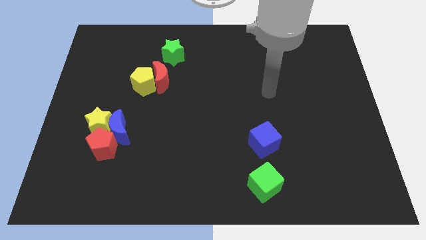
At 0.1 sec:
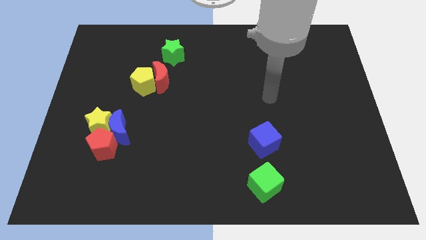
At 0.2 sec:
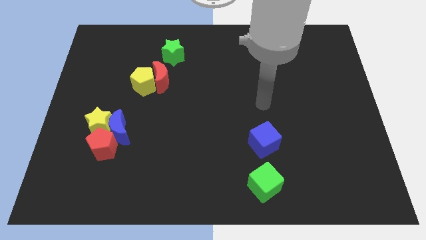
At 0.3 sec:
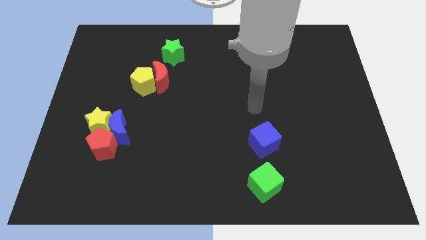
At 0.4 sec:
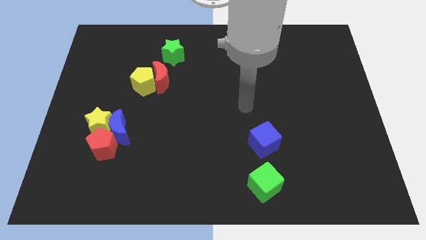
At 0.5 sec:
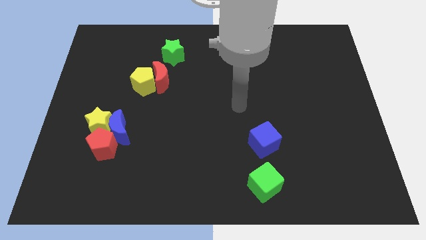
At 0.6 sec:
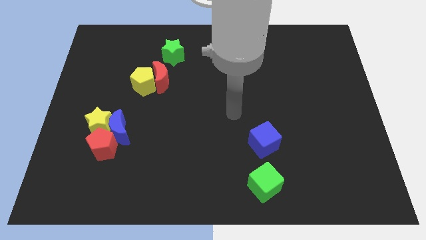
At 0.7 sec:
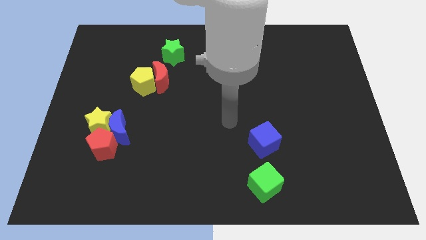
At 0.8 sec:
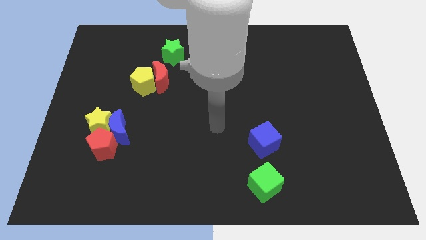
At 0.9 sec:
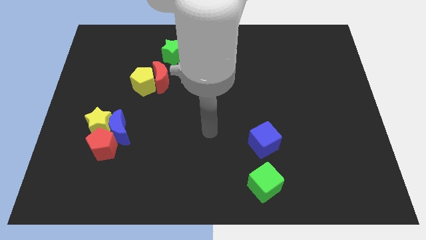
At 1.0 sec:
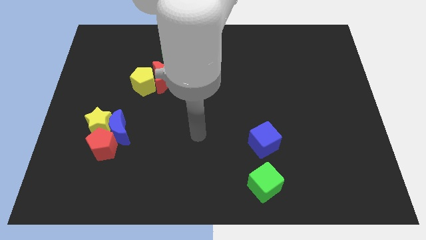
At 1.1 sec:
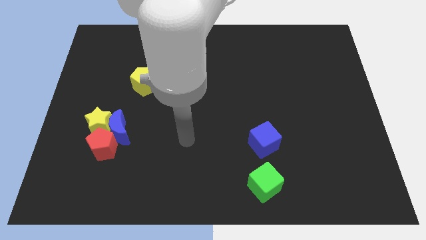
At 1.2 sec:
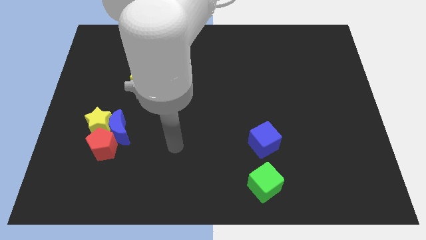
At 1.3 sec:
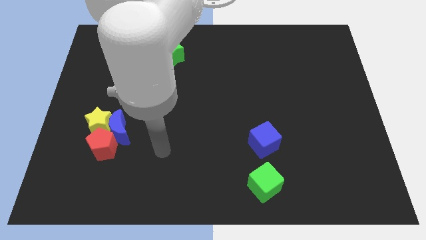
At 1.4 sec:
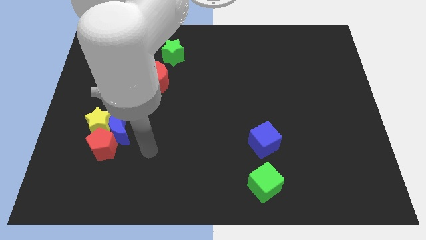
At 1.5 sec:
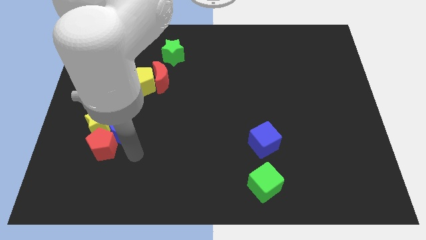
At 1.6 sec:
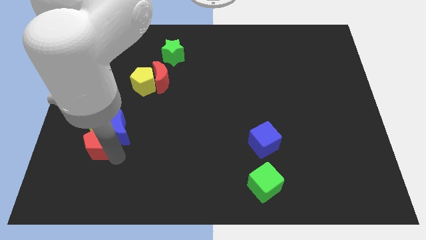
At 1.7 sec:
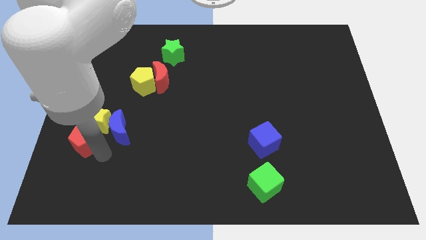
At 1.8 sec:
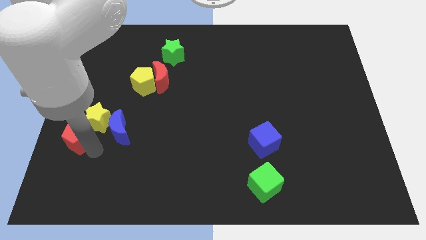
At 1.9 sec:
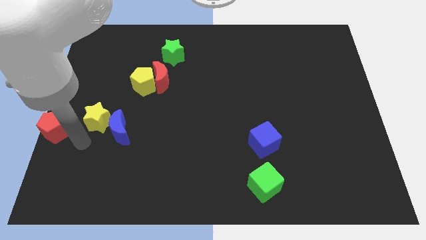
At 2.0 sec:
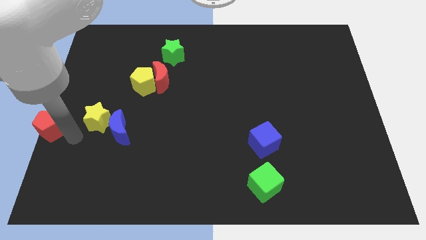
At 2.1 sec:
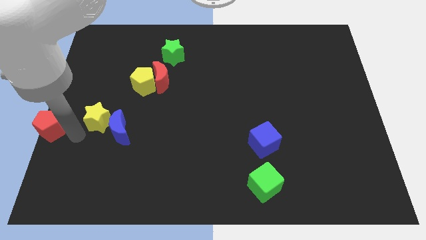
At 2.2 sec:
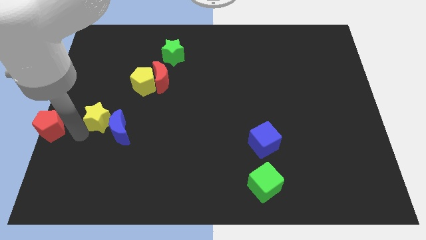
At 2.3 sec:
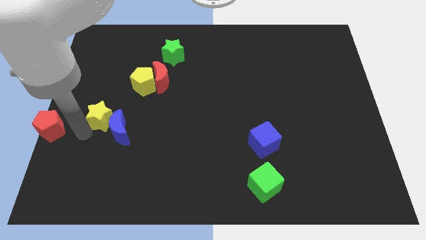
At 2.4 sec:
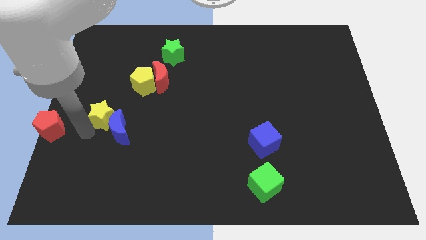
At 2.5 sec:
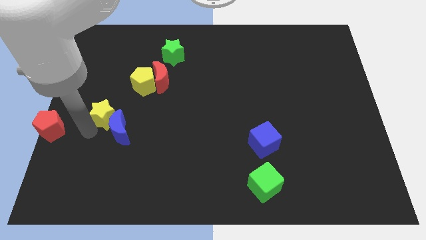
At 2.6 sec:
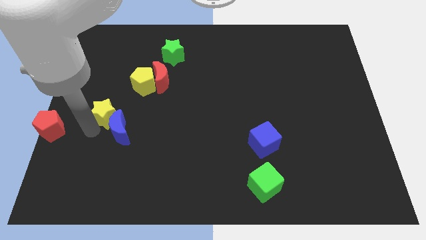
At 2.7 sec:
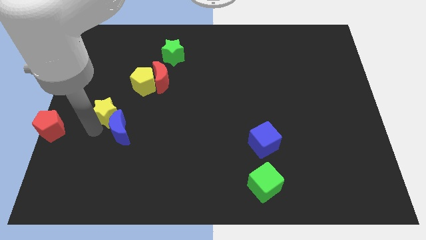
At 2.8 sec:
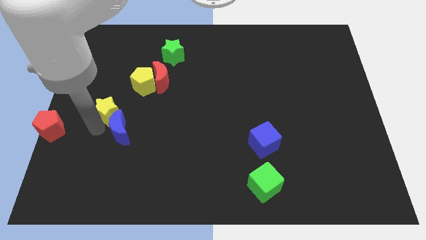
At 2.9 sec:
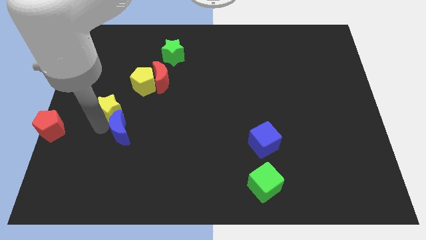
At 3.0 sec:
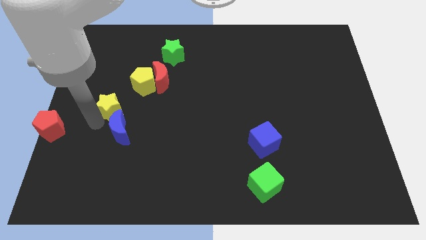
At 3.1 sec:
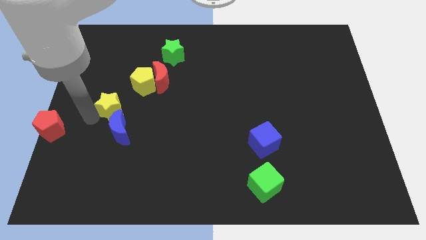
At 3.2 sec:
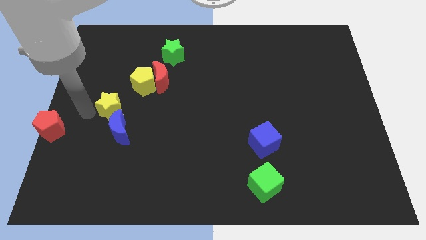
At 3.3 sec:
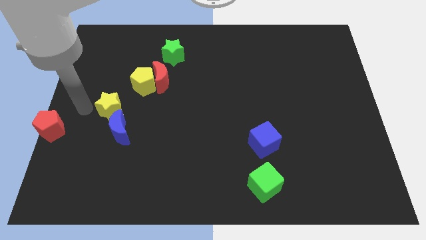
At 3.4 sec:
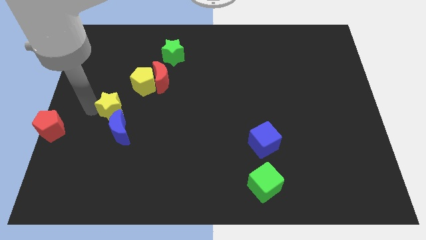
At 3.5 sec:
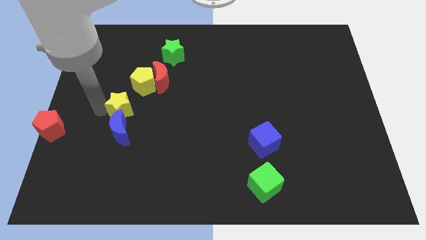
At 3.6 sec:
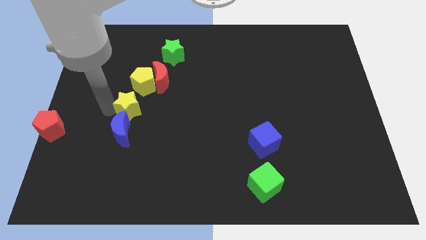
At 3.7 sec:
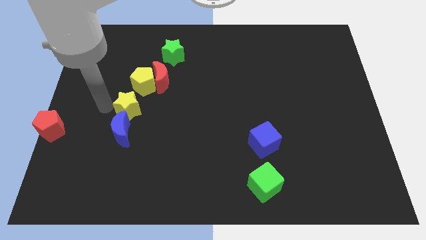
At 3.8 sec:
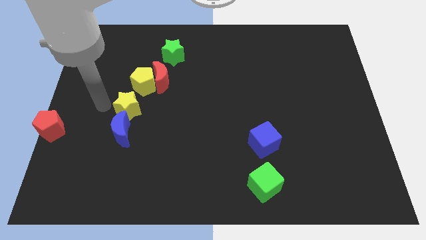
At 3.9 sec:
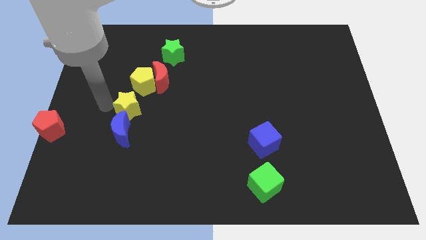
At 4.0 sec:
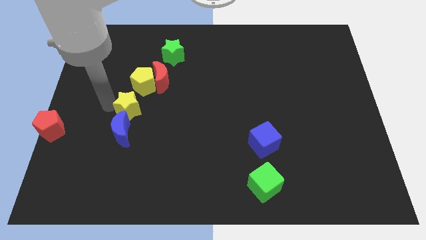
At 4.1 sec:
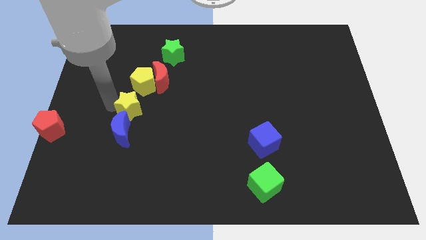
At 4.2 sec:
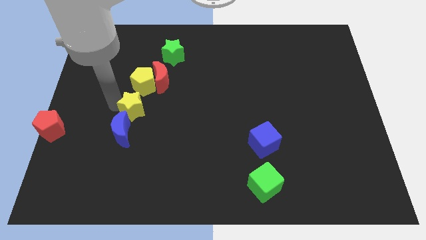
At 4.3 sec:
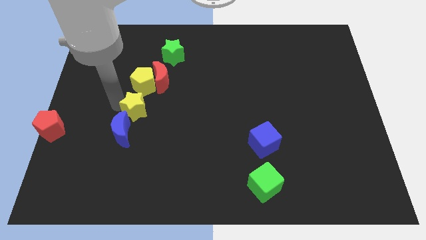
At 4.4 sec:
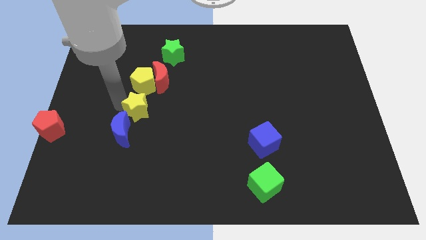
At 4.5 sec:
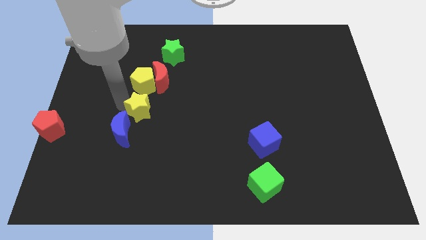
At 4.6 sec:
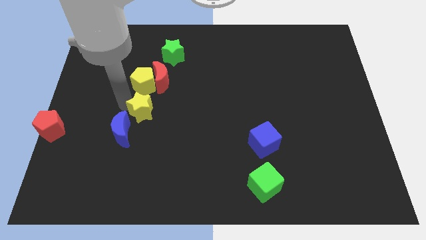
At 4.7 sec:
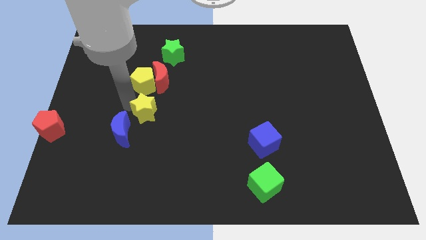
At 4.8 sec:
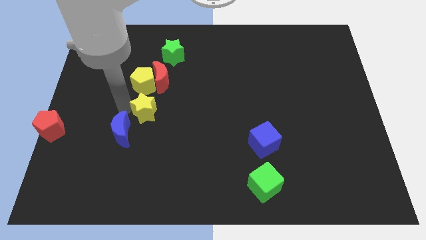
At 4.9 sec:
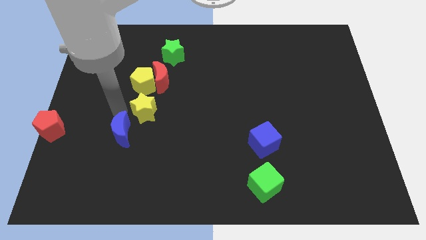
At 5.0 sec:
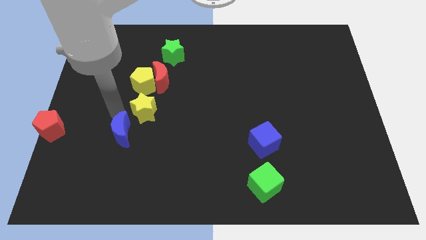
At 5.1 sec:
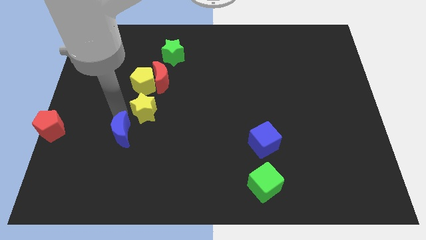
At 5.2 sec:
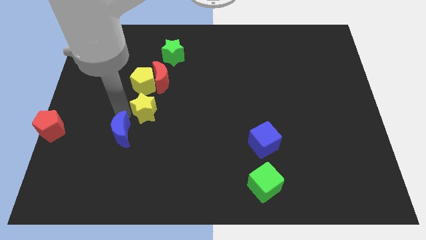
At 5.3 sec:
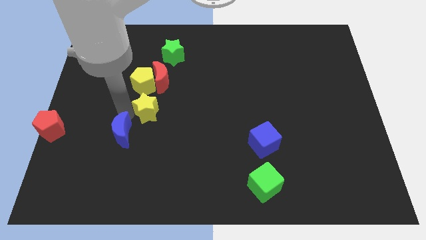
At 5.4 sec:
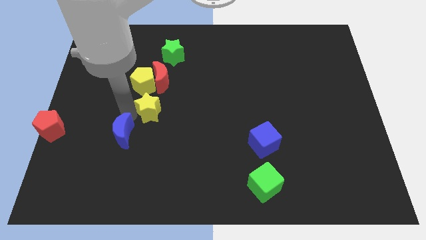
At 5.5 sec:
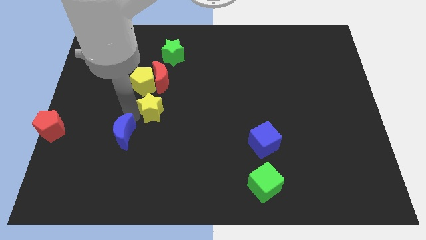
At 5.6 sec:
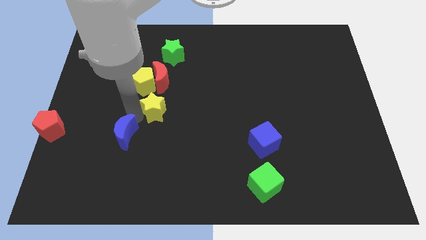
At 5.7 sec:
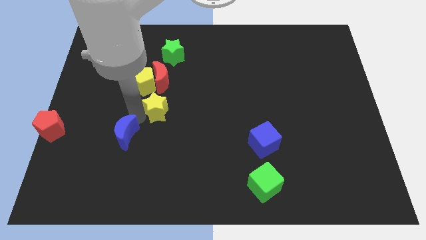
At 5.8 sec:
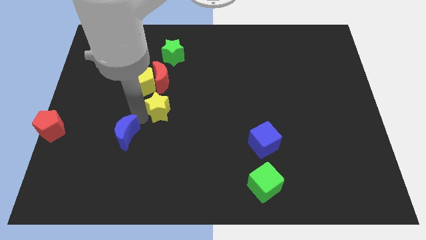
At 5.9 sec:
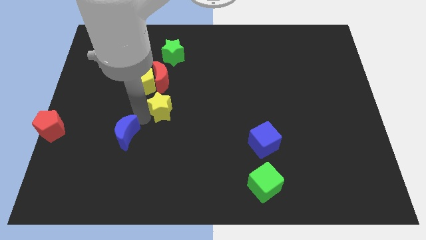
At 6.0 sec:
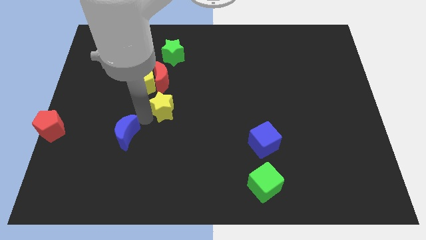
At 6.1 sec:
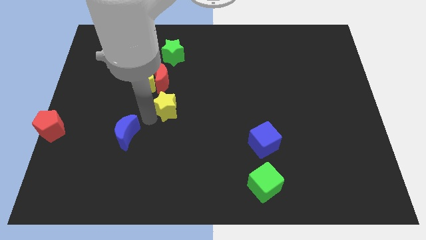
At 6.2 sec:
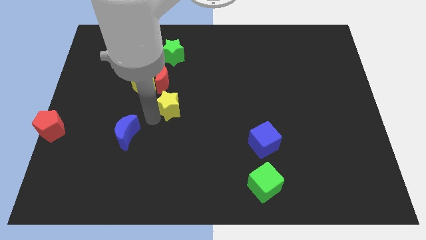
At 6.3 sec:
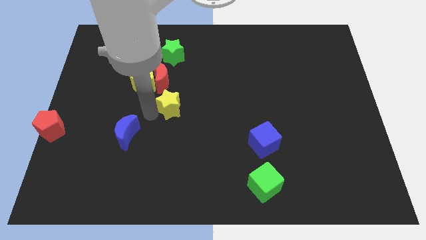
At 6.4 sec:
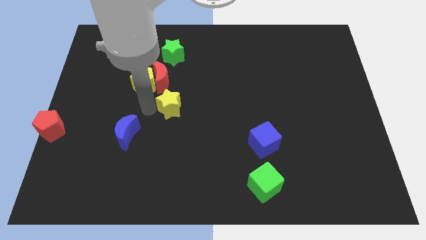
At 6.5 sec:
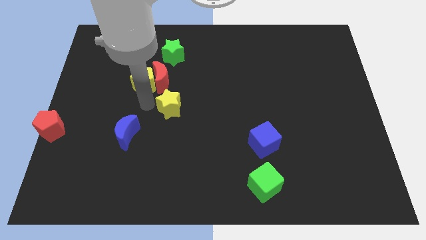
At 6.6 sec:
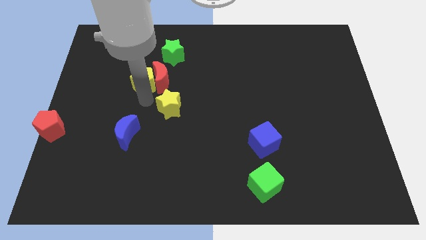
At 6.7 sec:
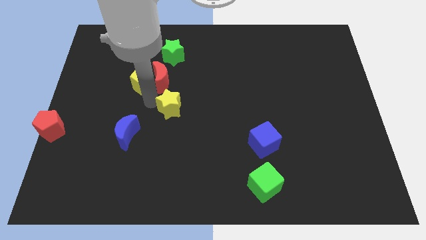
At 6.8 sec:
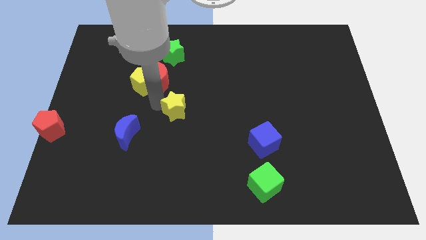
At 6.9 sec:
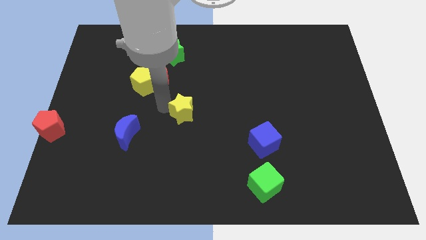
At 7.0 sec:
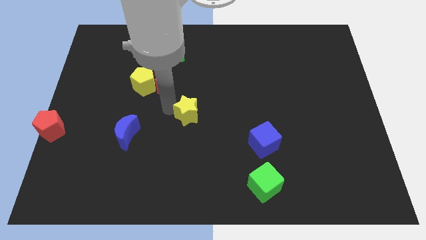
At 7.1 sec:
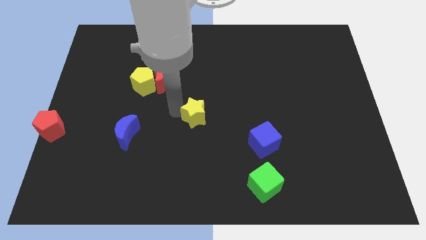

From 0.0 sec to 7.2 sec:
move the yellow star to the right

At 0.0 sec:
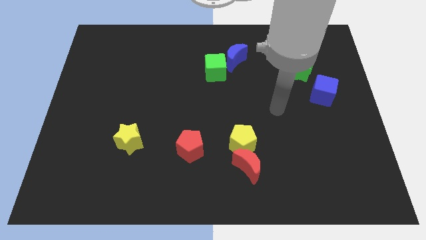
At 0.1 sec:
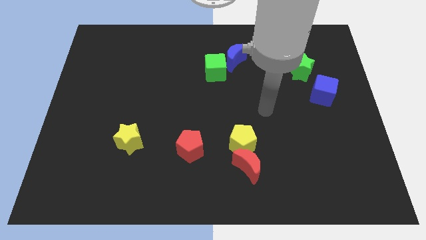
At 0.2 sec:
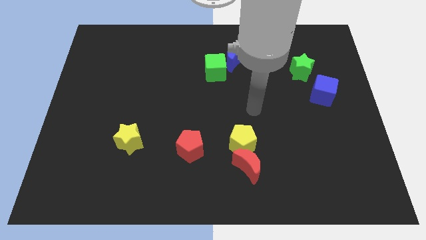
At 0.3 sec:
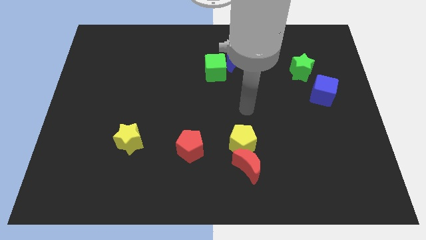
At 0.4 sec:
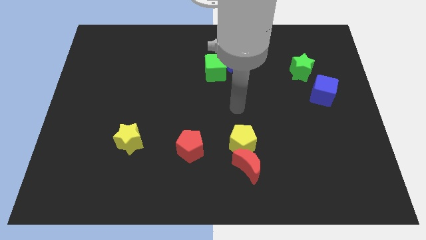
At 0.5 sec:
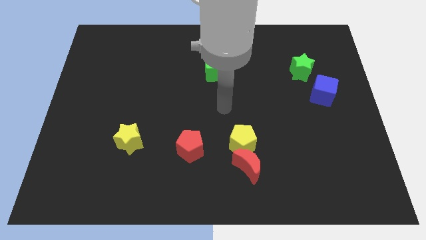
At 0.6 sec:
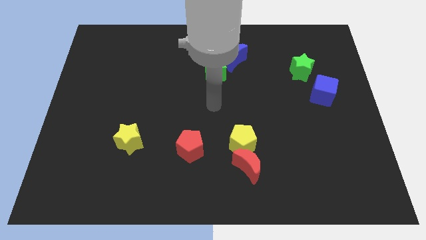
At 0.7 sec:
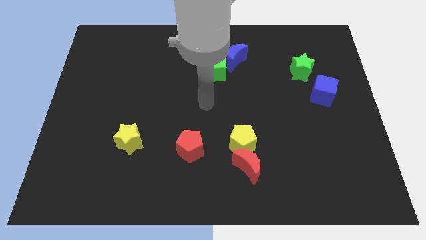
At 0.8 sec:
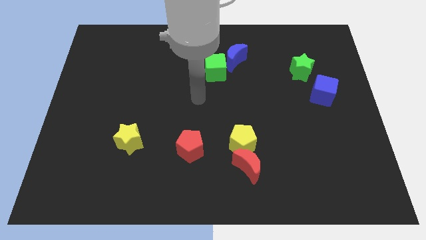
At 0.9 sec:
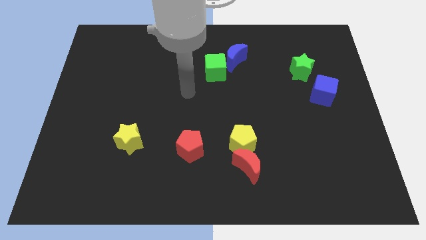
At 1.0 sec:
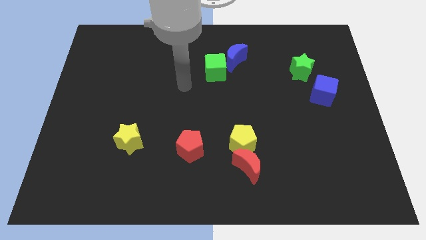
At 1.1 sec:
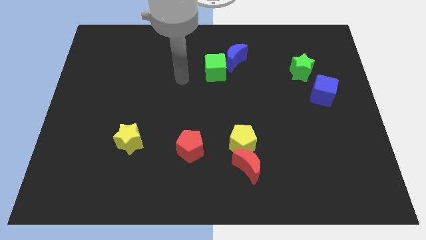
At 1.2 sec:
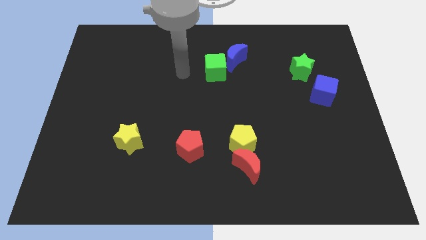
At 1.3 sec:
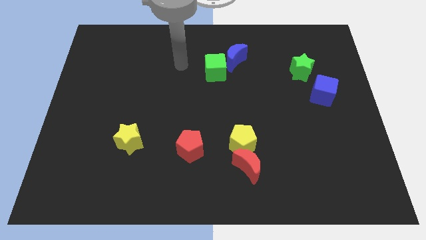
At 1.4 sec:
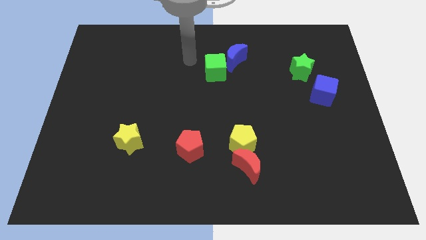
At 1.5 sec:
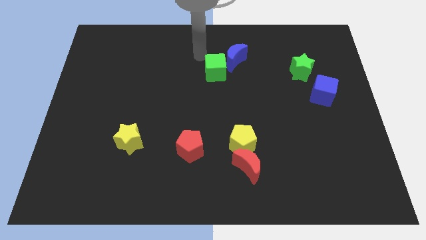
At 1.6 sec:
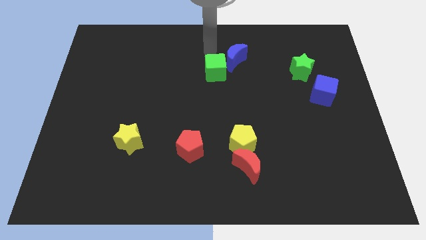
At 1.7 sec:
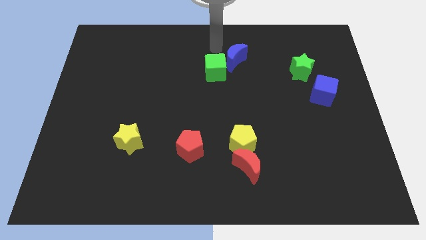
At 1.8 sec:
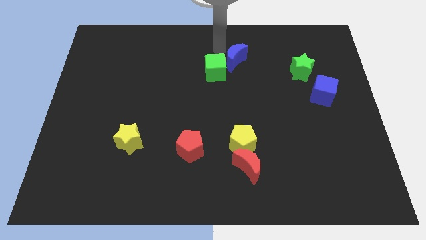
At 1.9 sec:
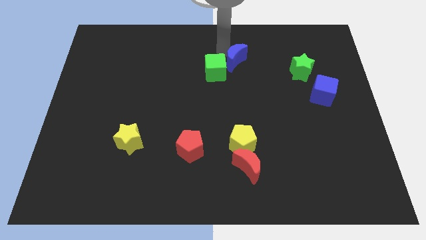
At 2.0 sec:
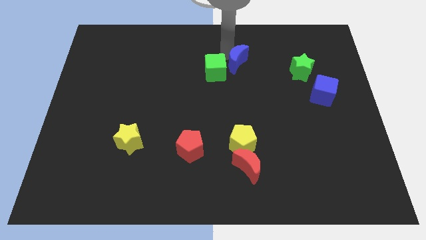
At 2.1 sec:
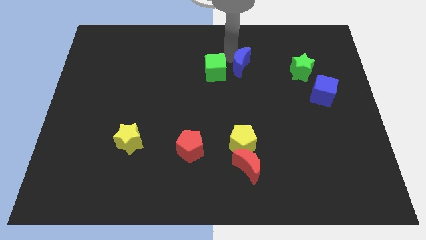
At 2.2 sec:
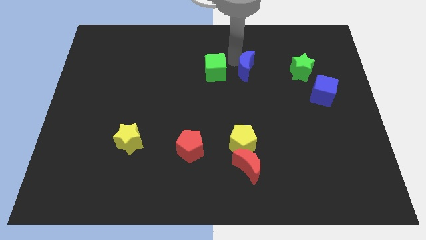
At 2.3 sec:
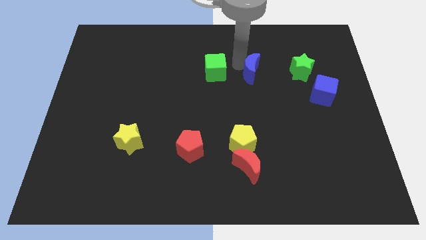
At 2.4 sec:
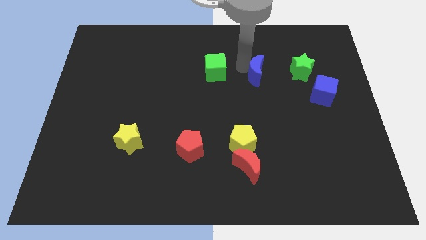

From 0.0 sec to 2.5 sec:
slide the blue moon a little bit diagonally downwards and right
